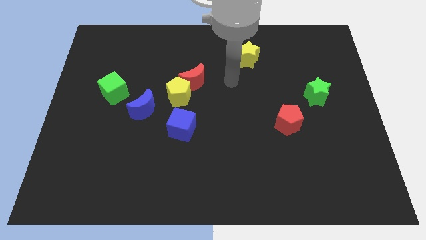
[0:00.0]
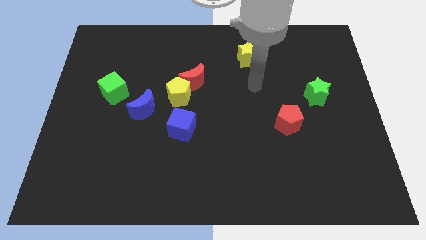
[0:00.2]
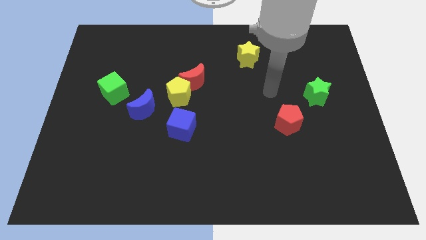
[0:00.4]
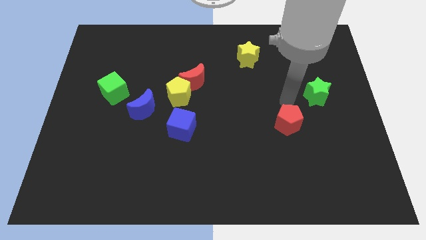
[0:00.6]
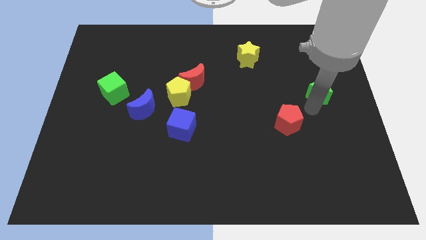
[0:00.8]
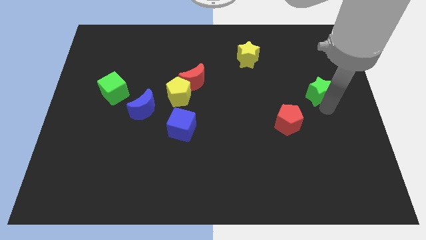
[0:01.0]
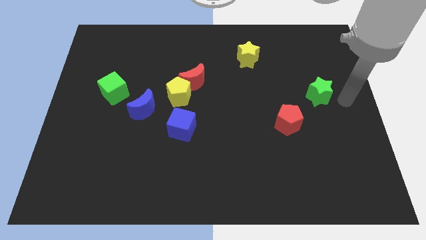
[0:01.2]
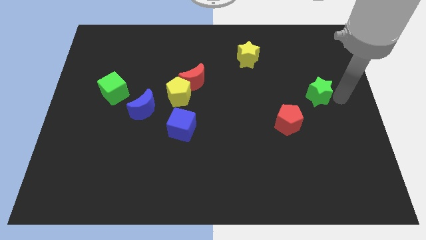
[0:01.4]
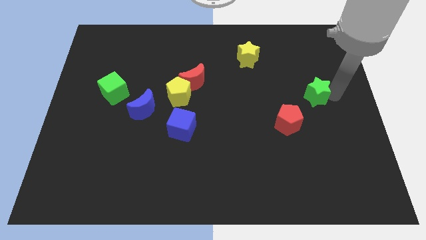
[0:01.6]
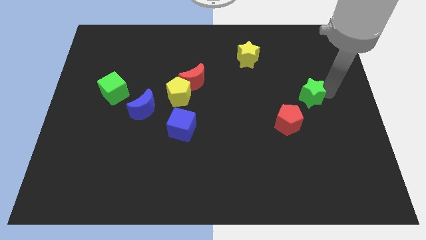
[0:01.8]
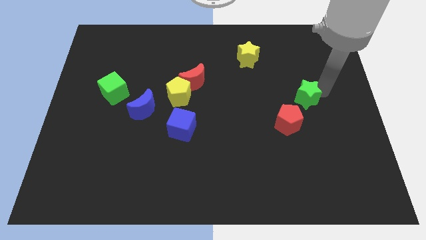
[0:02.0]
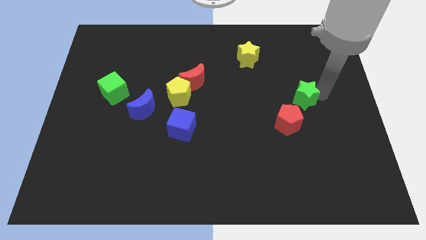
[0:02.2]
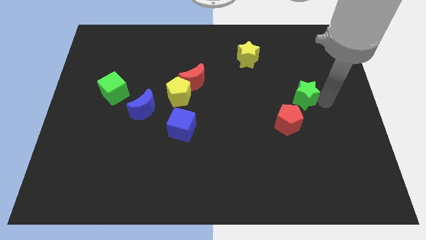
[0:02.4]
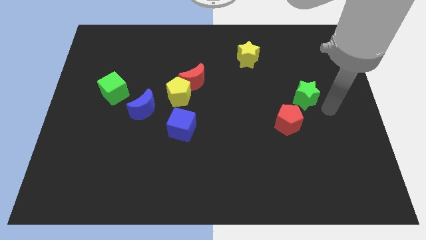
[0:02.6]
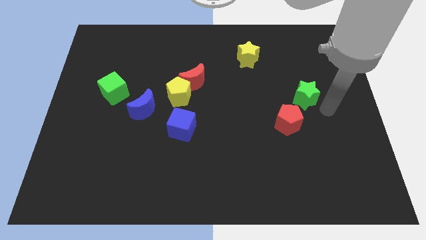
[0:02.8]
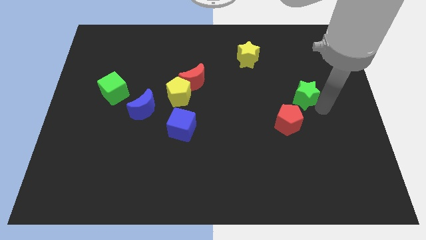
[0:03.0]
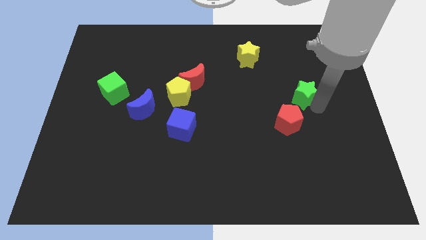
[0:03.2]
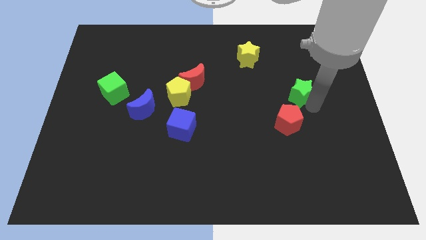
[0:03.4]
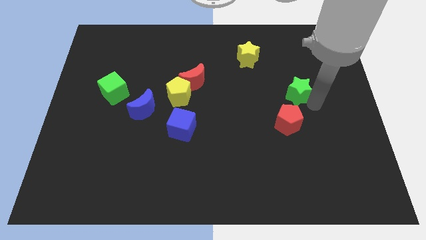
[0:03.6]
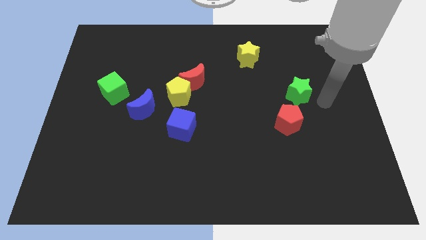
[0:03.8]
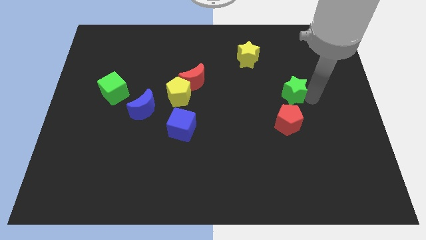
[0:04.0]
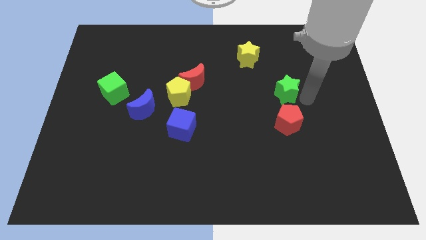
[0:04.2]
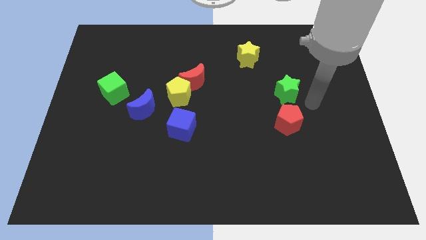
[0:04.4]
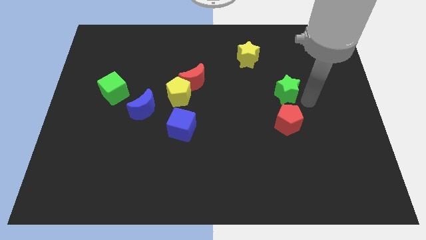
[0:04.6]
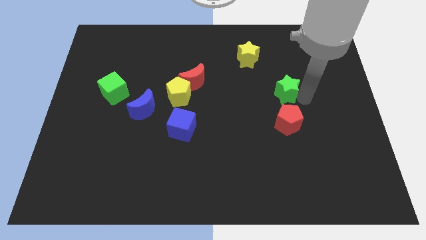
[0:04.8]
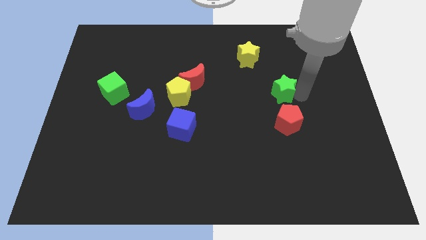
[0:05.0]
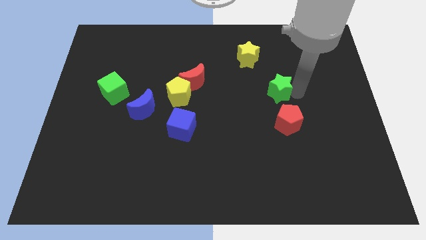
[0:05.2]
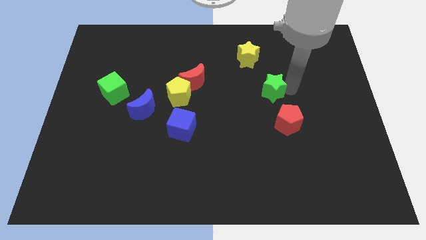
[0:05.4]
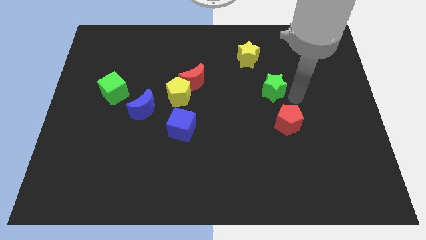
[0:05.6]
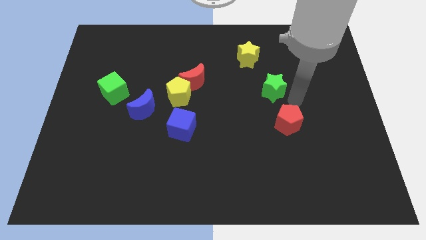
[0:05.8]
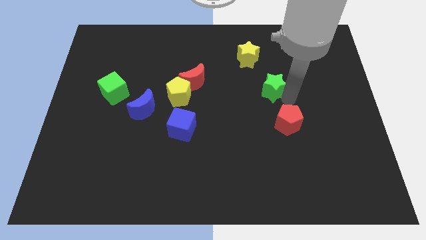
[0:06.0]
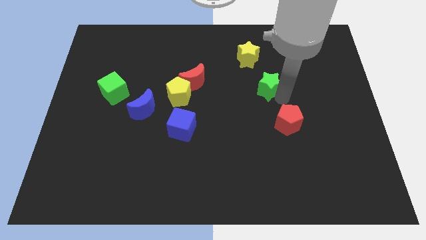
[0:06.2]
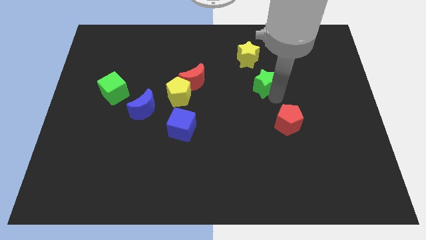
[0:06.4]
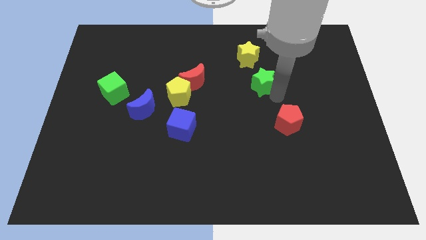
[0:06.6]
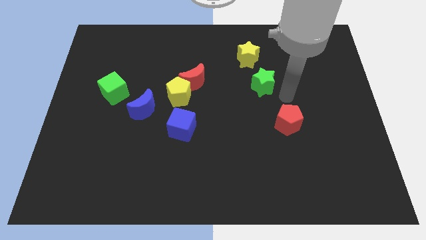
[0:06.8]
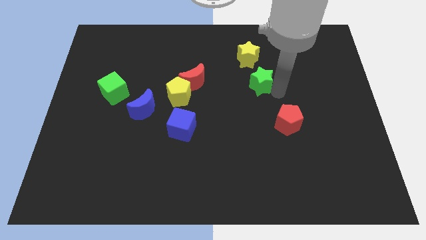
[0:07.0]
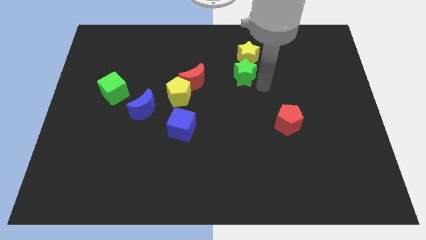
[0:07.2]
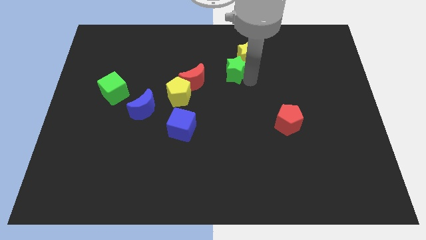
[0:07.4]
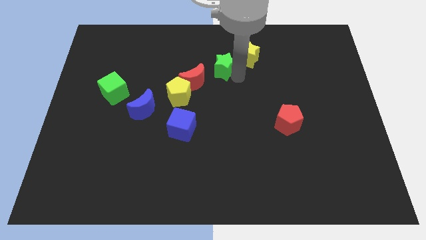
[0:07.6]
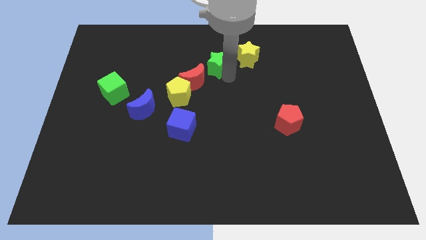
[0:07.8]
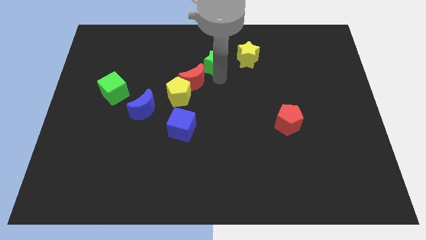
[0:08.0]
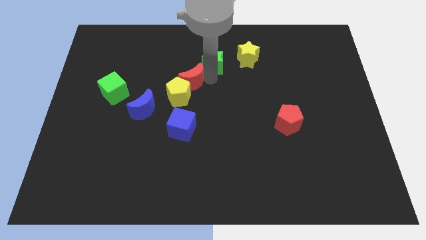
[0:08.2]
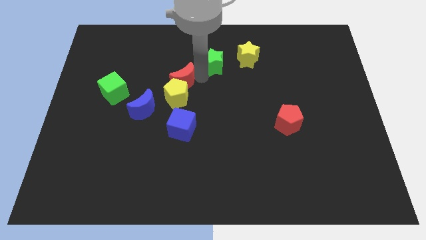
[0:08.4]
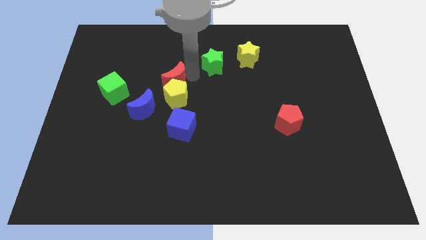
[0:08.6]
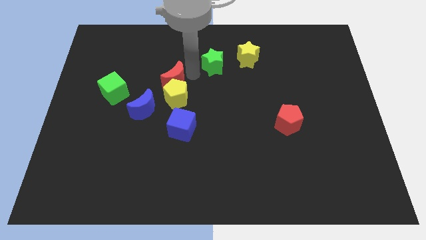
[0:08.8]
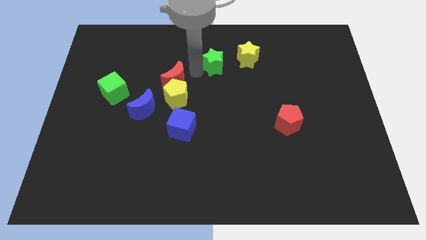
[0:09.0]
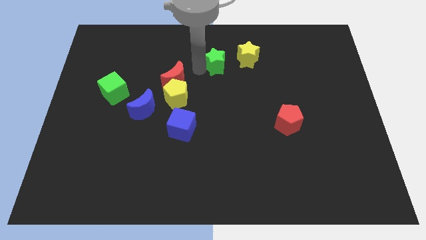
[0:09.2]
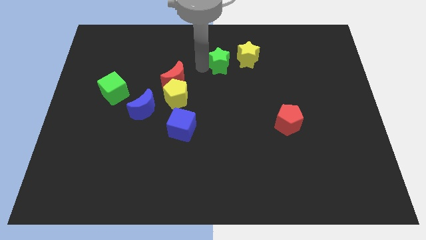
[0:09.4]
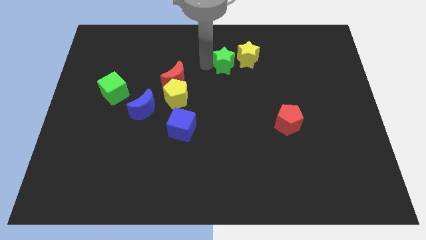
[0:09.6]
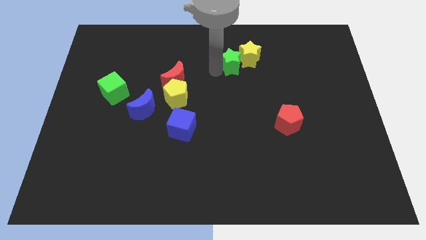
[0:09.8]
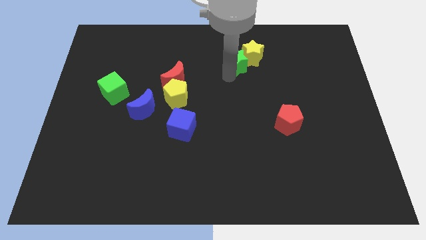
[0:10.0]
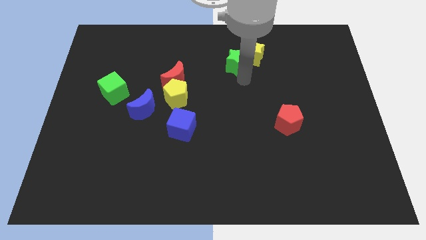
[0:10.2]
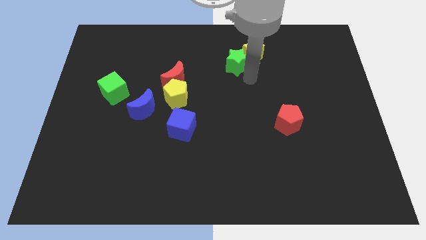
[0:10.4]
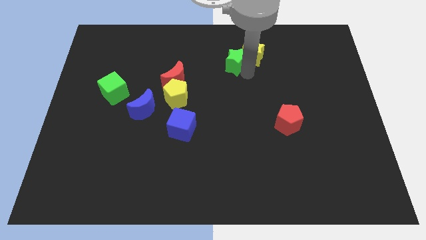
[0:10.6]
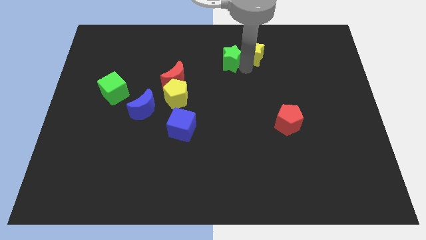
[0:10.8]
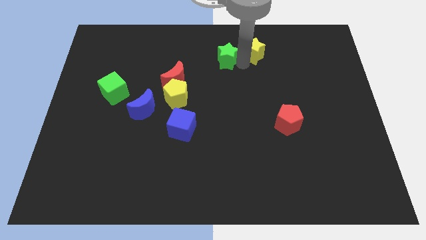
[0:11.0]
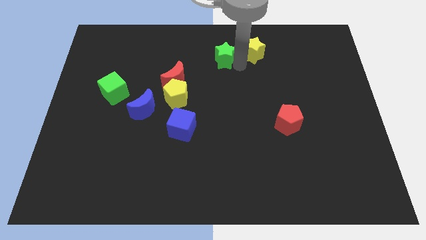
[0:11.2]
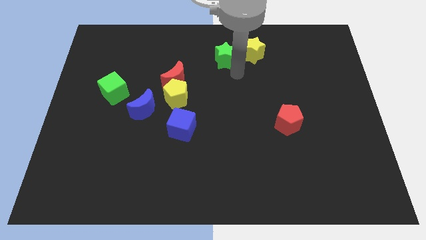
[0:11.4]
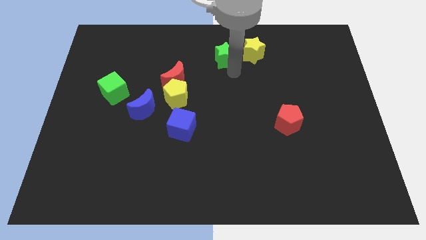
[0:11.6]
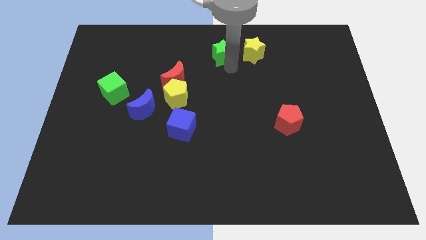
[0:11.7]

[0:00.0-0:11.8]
move the green star to the top
